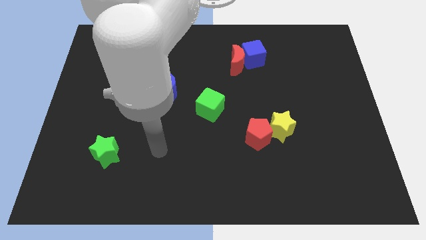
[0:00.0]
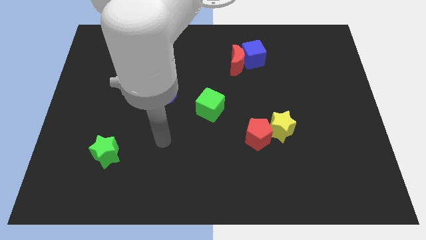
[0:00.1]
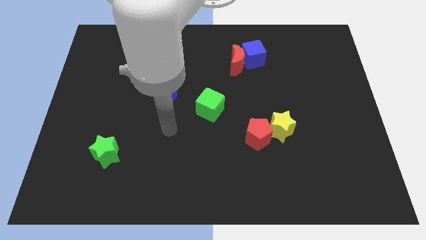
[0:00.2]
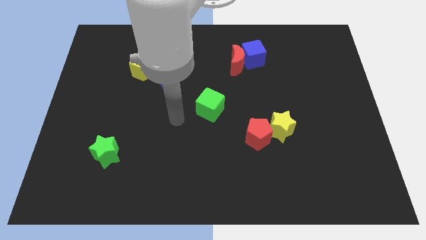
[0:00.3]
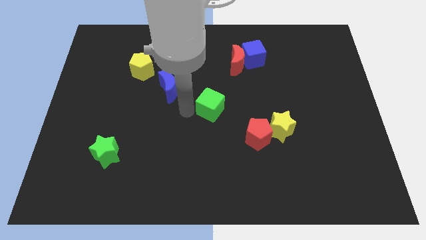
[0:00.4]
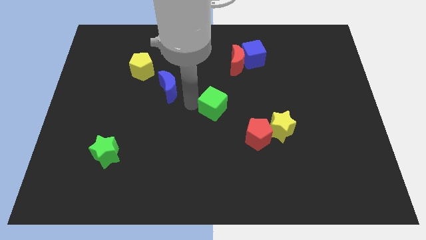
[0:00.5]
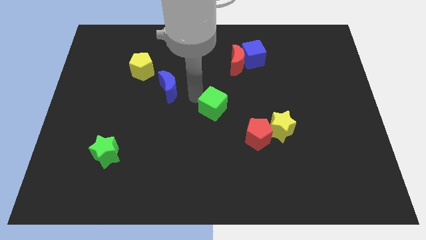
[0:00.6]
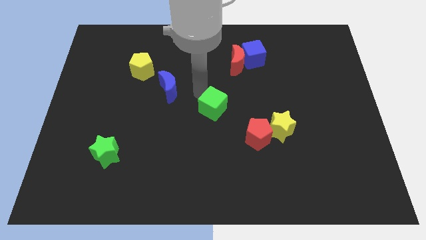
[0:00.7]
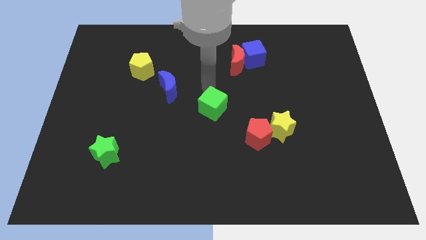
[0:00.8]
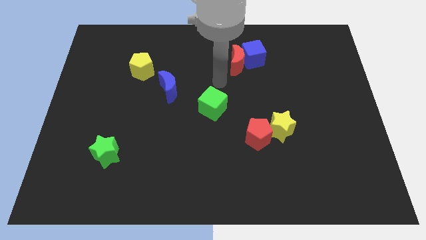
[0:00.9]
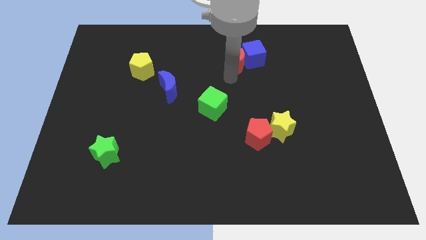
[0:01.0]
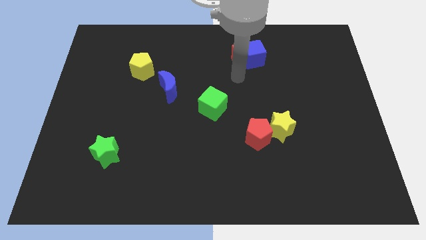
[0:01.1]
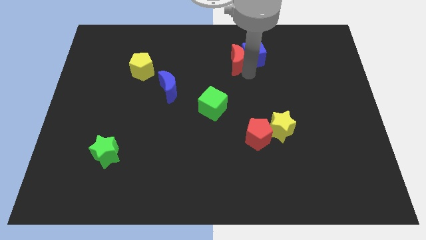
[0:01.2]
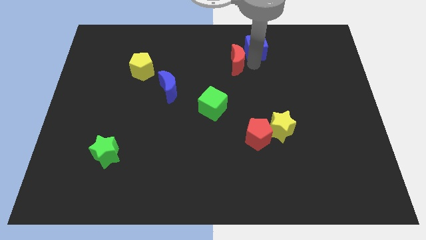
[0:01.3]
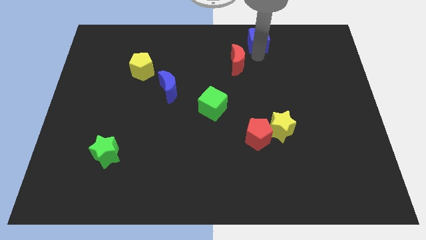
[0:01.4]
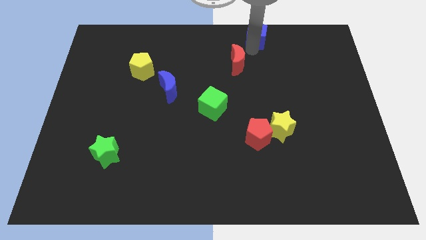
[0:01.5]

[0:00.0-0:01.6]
pull the red moon apart from the blue cube

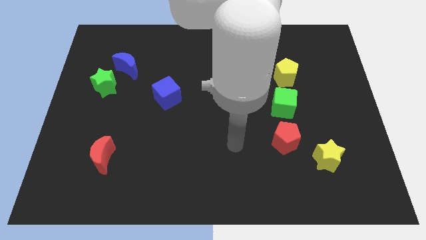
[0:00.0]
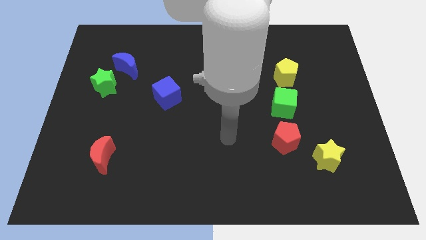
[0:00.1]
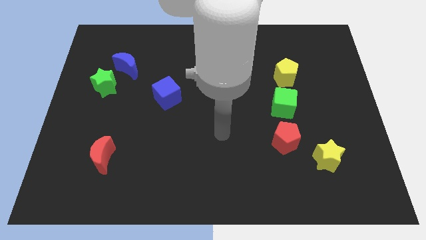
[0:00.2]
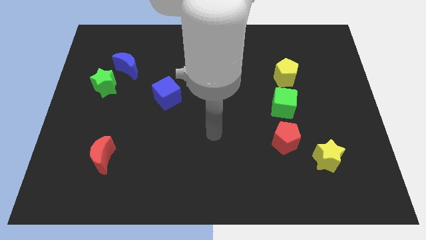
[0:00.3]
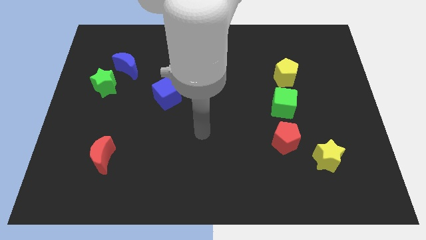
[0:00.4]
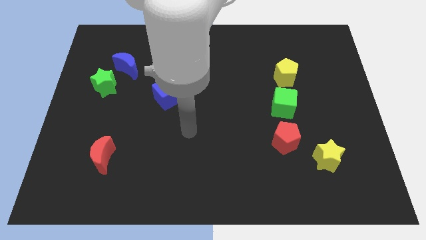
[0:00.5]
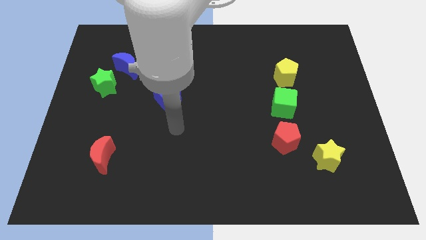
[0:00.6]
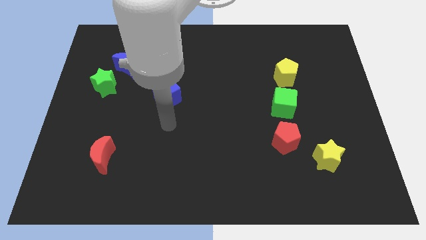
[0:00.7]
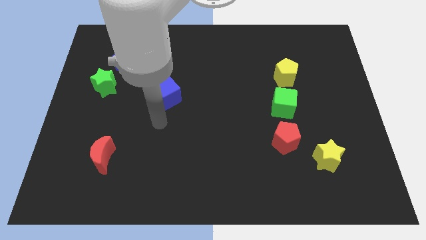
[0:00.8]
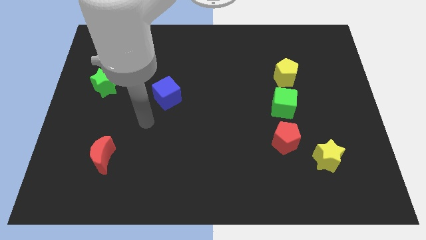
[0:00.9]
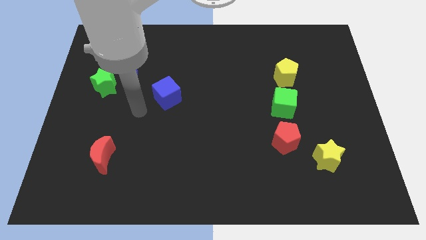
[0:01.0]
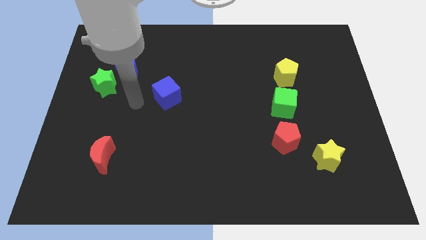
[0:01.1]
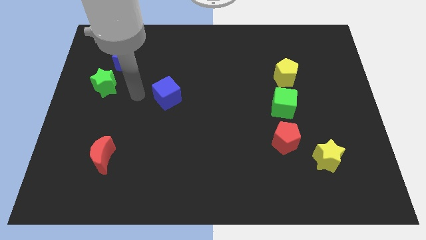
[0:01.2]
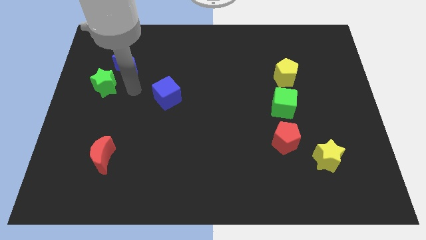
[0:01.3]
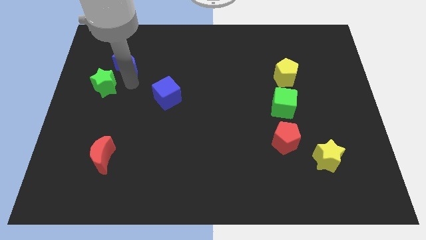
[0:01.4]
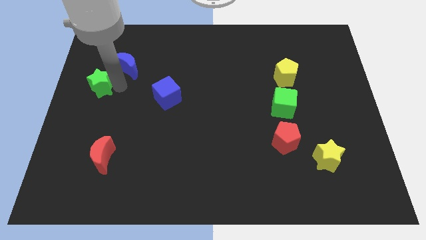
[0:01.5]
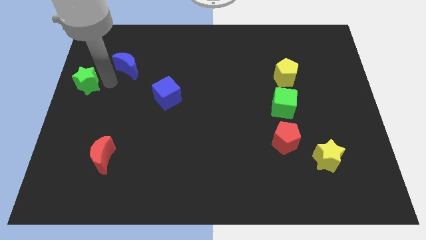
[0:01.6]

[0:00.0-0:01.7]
separate the blue moon from the green star

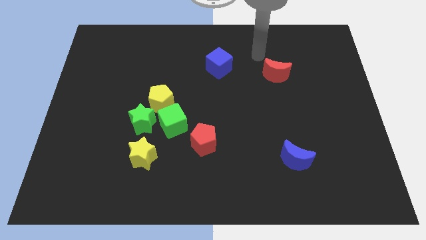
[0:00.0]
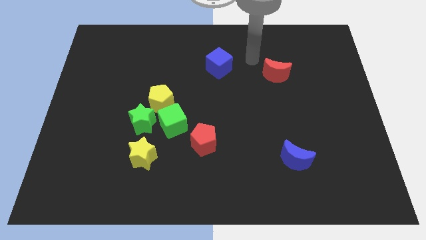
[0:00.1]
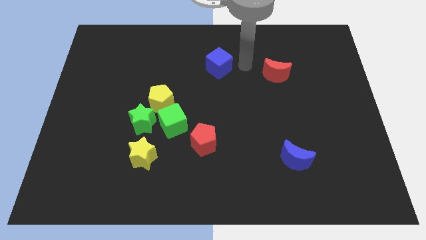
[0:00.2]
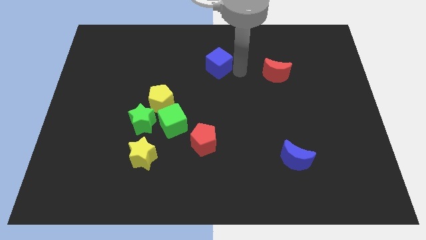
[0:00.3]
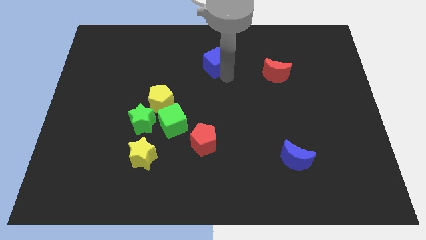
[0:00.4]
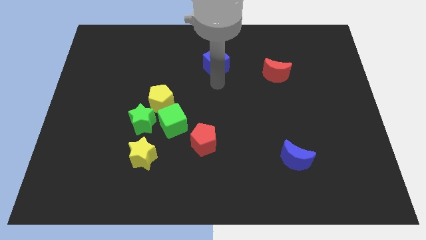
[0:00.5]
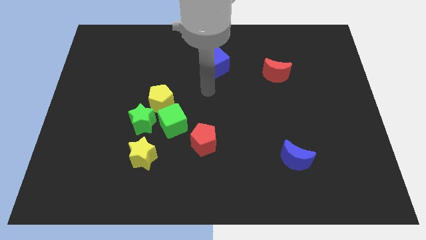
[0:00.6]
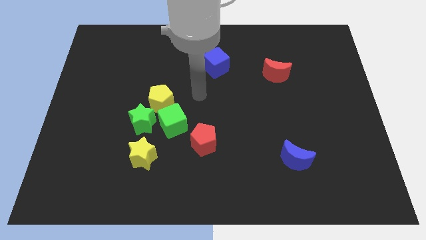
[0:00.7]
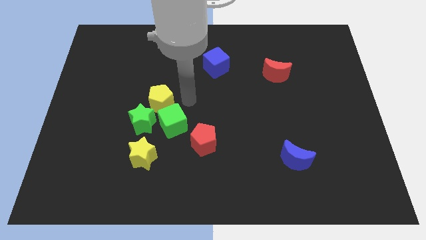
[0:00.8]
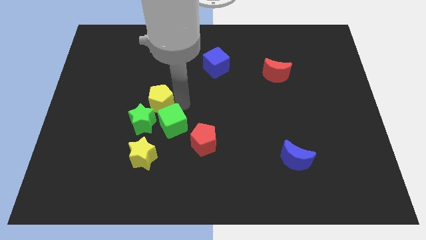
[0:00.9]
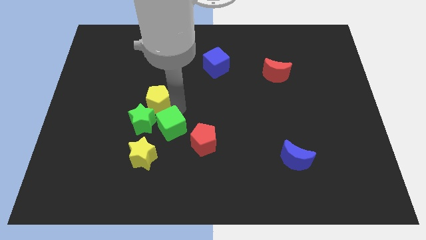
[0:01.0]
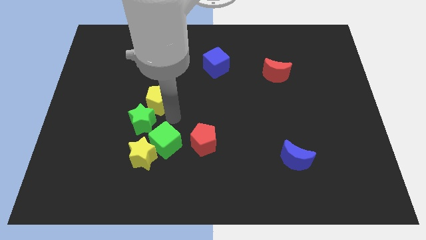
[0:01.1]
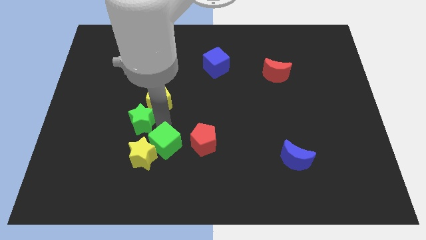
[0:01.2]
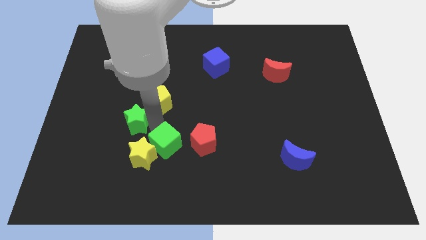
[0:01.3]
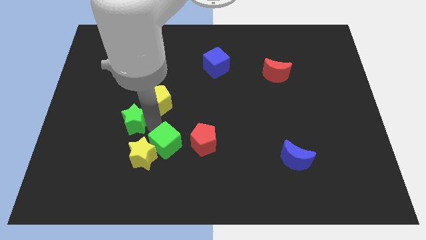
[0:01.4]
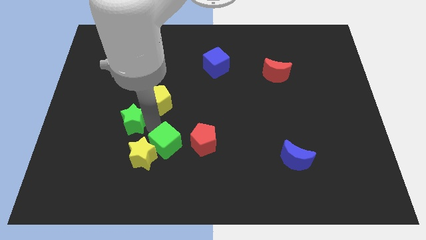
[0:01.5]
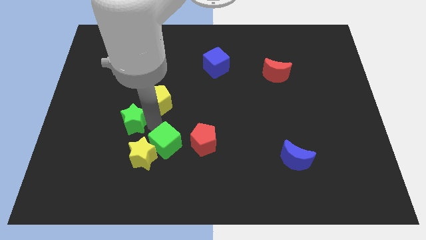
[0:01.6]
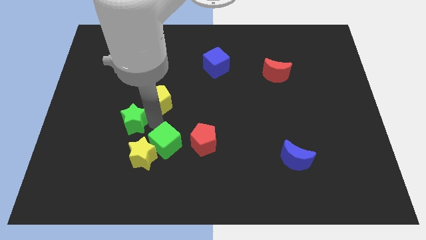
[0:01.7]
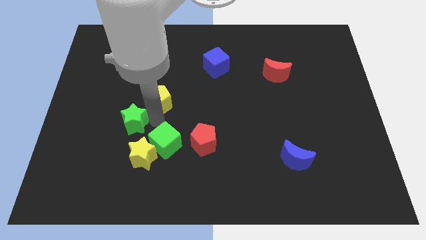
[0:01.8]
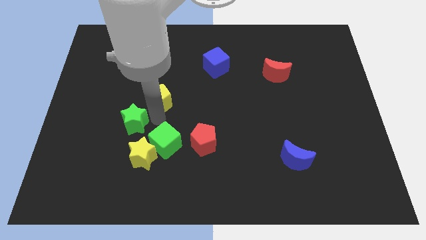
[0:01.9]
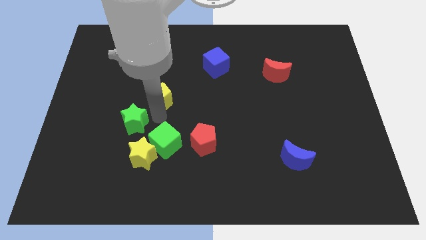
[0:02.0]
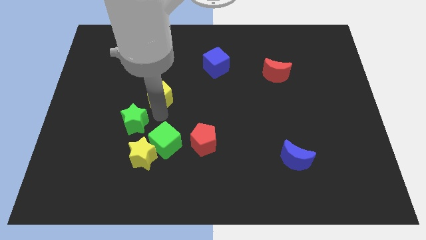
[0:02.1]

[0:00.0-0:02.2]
move the yellow pentagon away from the green star and green cube

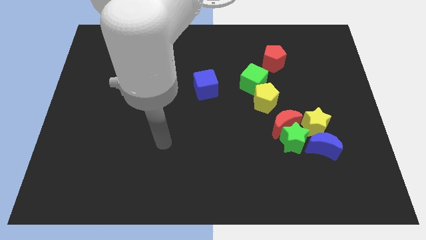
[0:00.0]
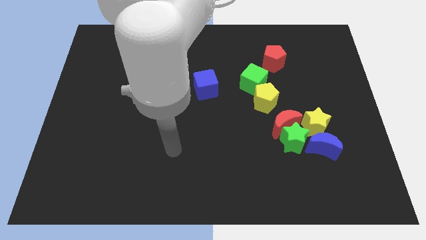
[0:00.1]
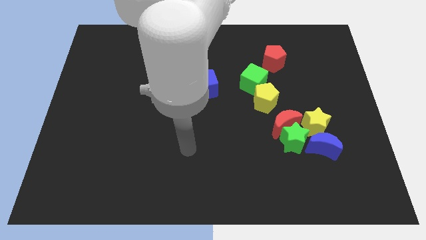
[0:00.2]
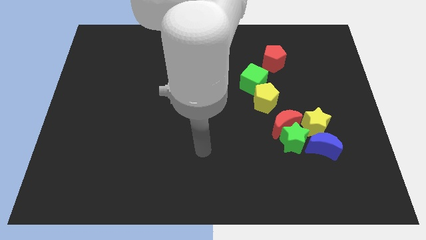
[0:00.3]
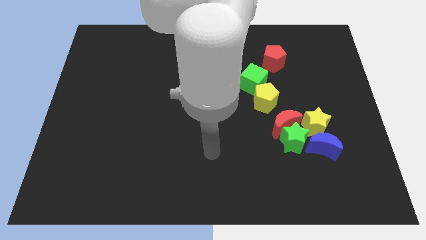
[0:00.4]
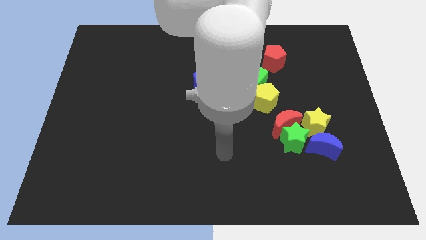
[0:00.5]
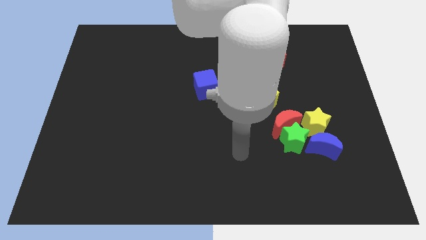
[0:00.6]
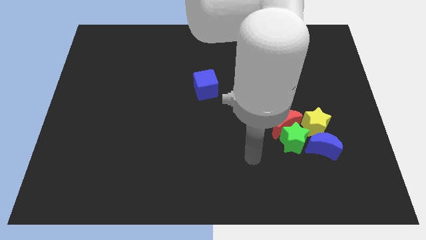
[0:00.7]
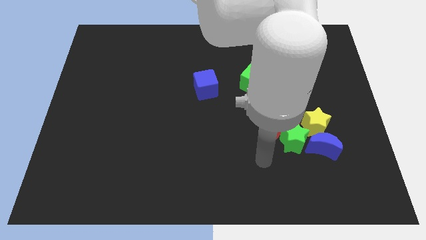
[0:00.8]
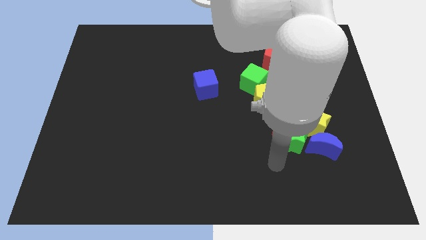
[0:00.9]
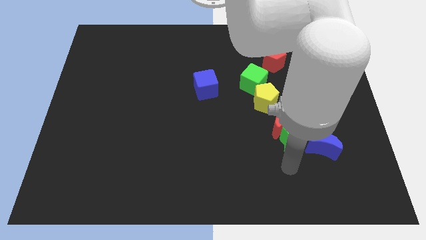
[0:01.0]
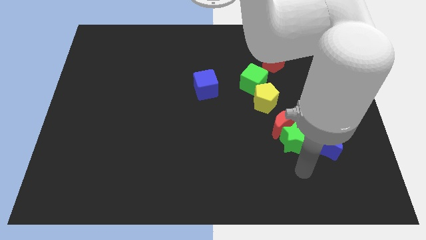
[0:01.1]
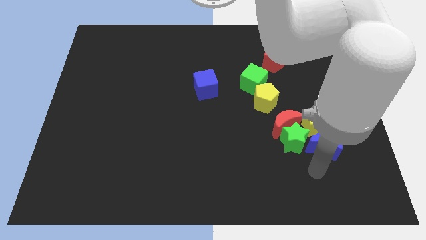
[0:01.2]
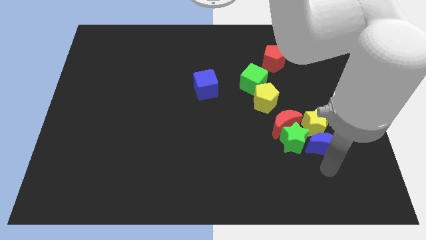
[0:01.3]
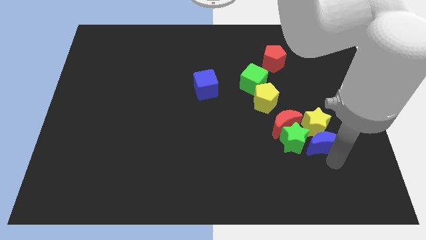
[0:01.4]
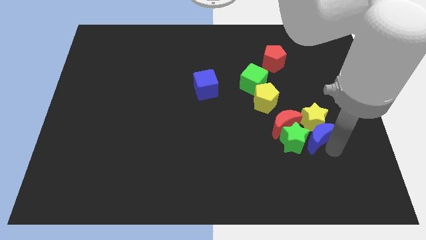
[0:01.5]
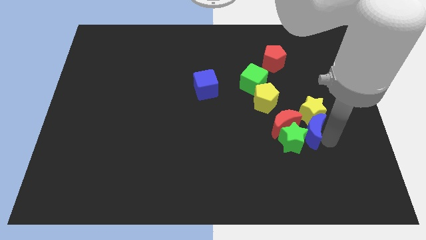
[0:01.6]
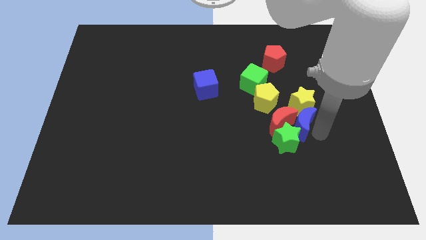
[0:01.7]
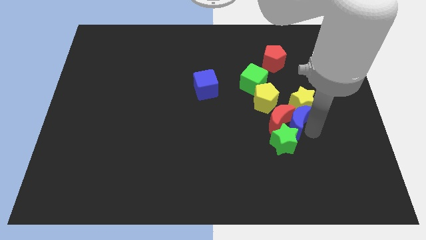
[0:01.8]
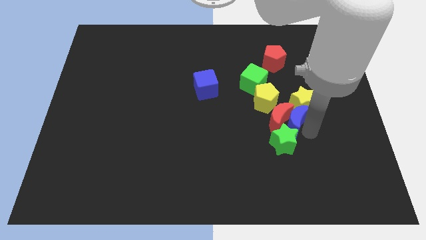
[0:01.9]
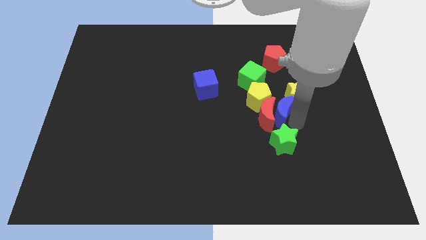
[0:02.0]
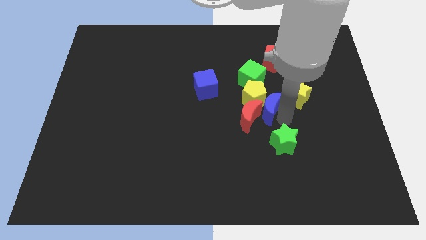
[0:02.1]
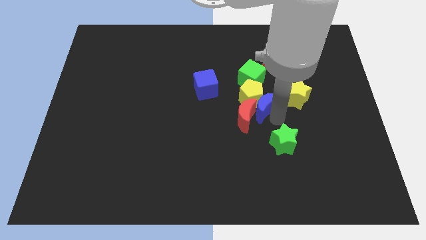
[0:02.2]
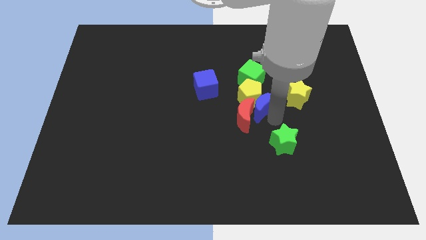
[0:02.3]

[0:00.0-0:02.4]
move the green star away from the red moon, blue moon, and yellow star

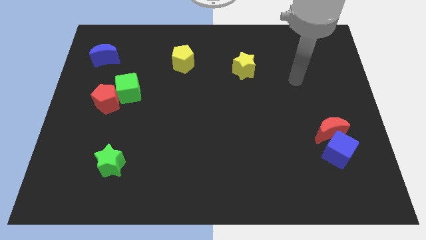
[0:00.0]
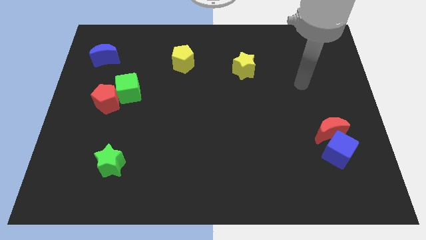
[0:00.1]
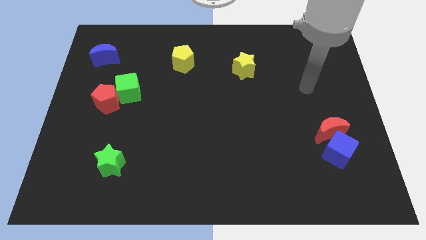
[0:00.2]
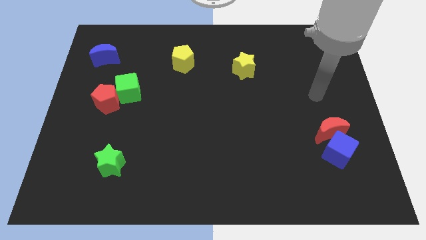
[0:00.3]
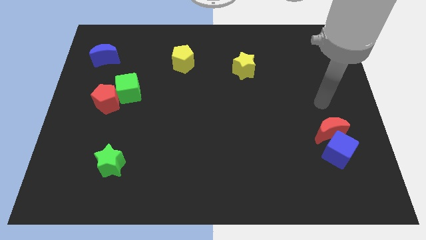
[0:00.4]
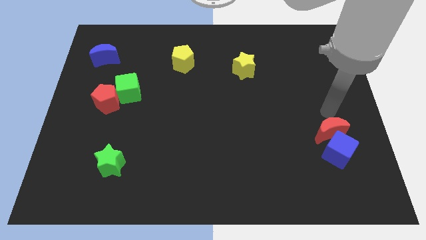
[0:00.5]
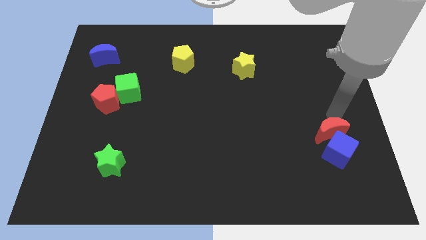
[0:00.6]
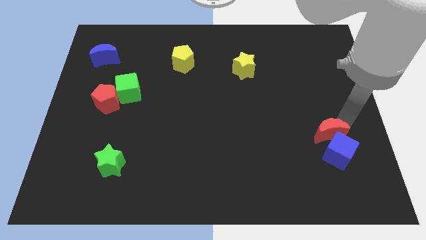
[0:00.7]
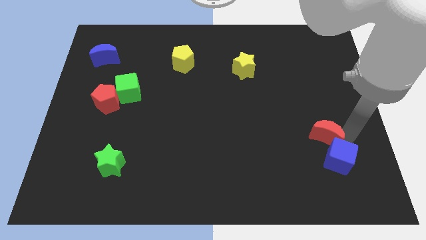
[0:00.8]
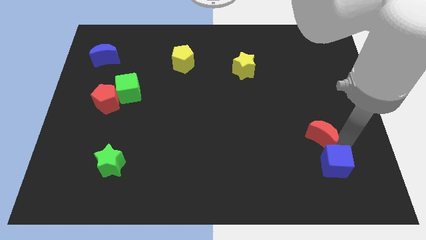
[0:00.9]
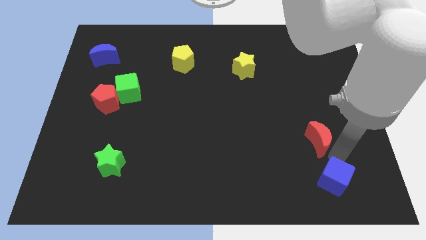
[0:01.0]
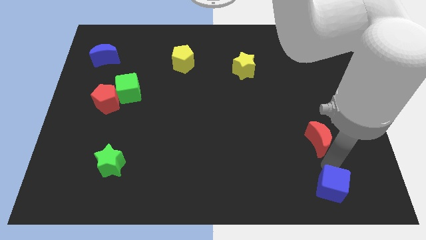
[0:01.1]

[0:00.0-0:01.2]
move the red moon away from the blue cube

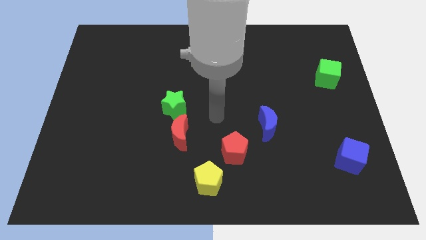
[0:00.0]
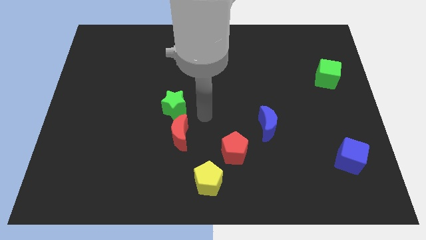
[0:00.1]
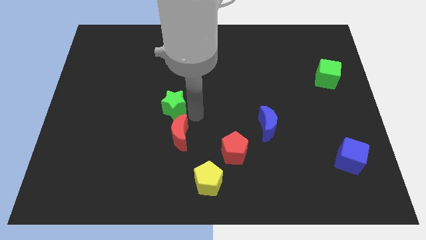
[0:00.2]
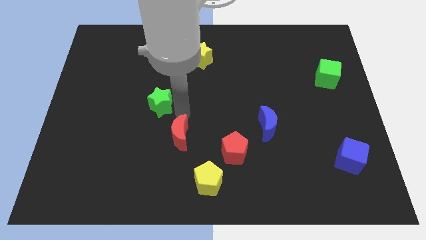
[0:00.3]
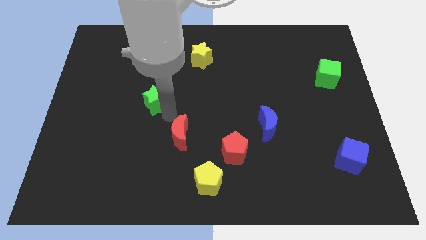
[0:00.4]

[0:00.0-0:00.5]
separate the red moon from the green star
